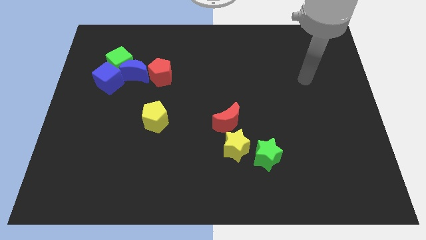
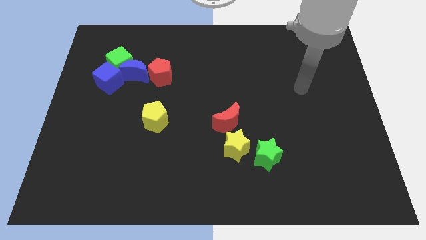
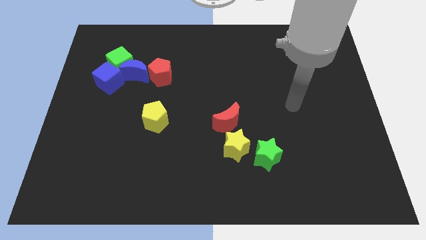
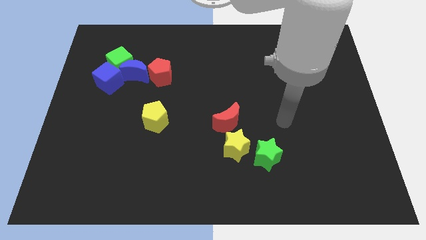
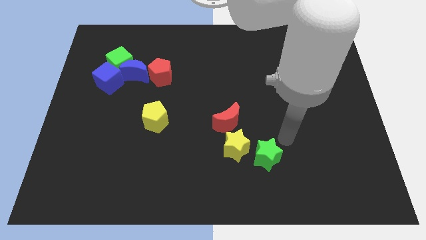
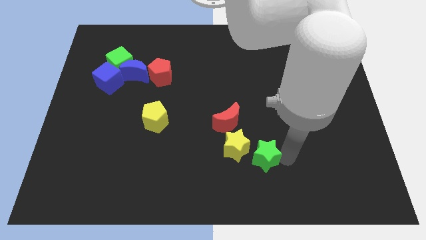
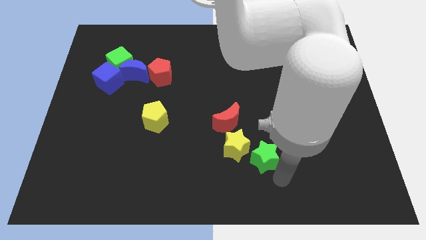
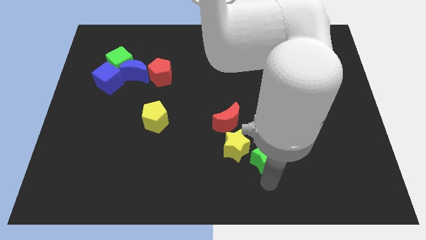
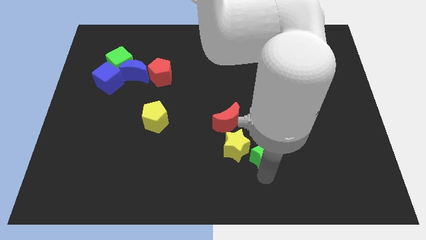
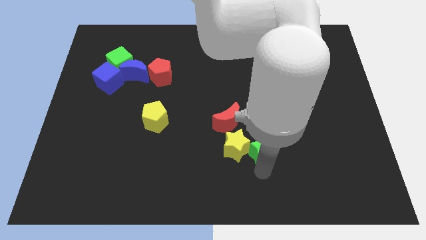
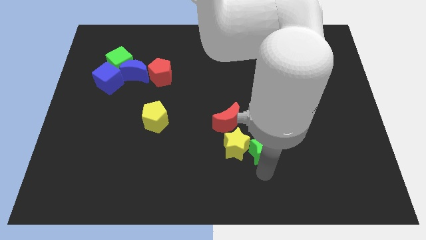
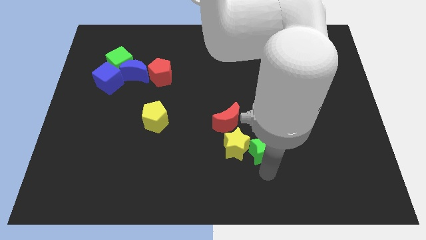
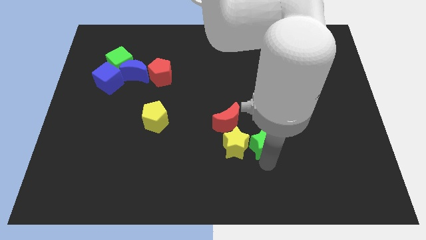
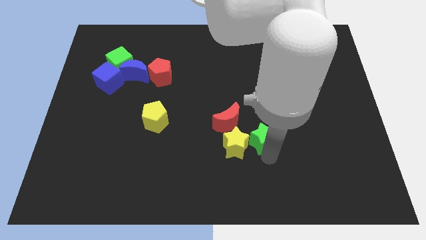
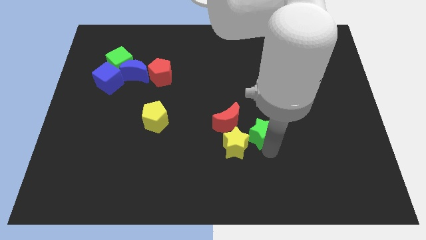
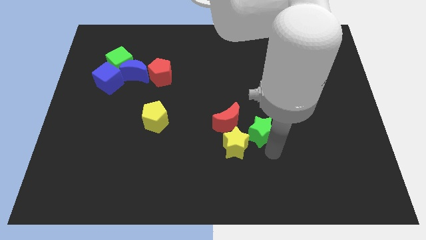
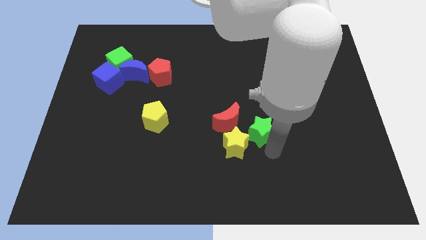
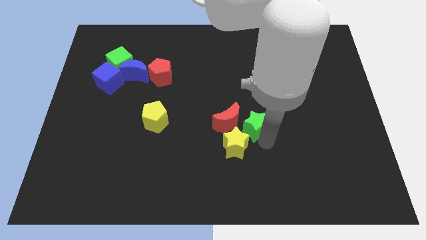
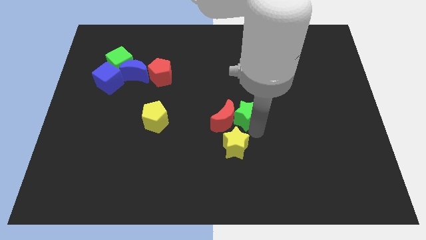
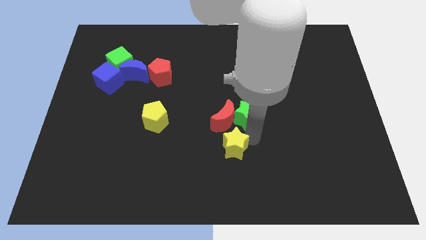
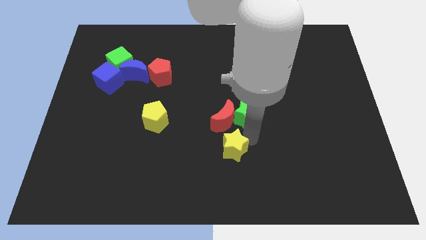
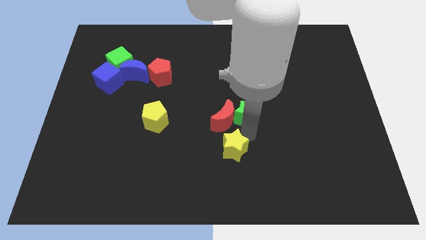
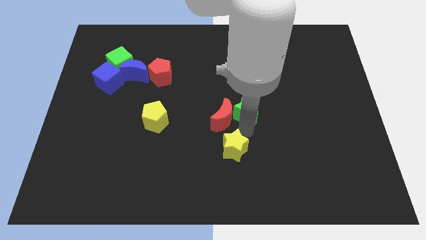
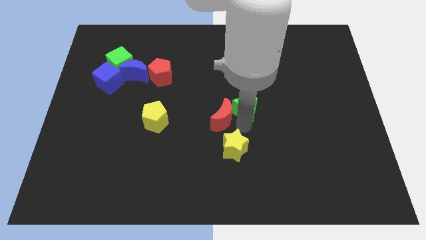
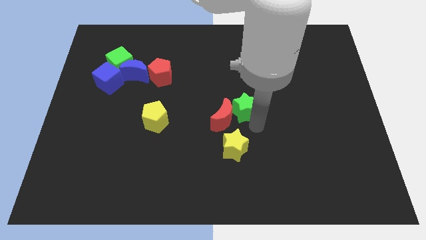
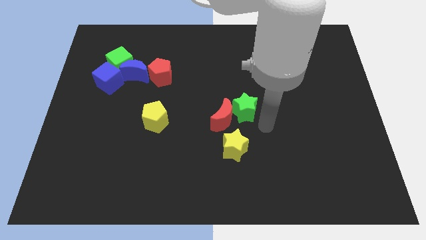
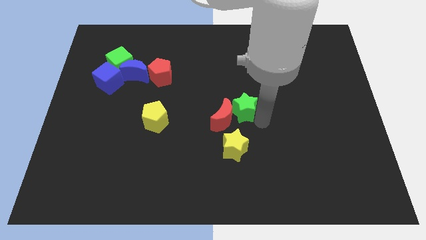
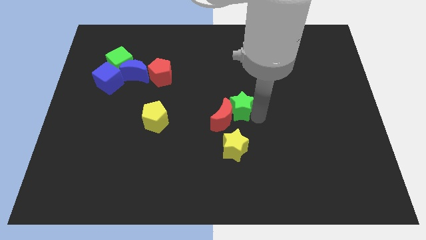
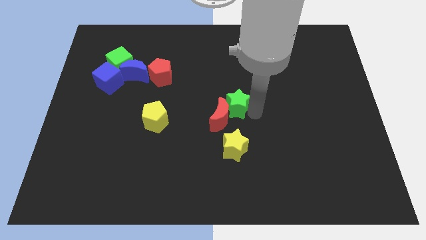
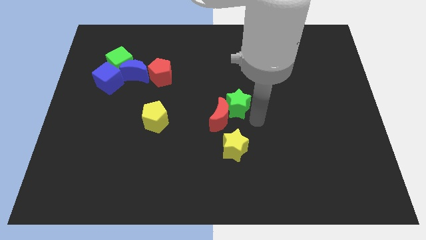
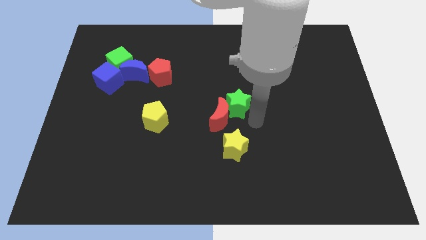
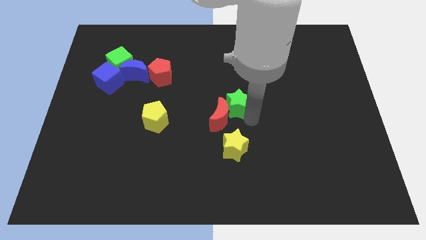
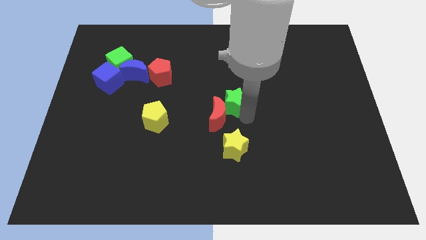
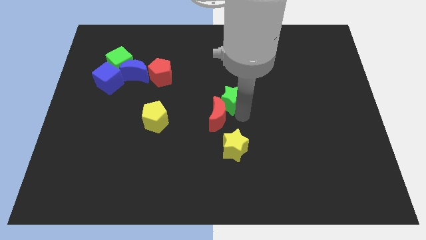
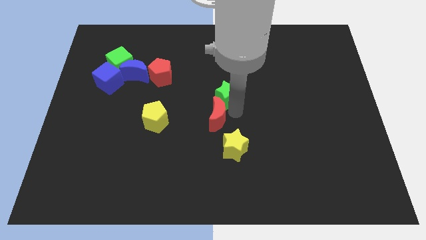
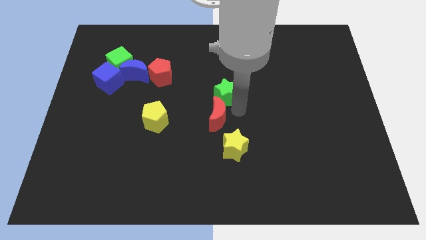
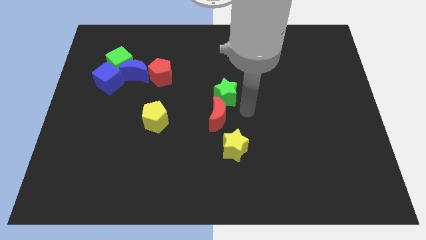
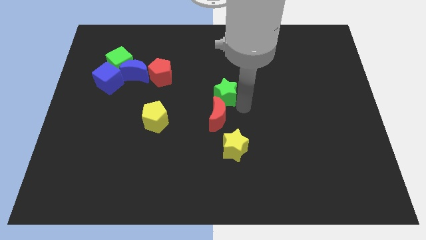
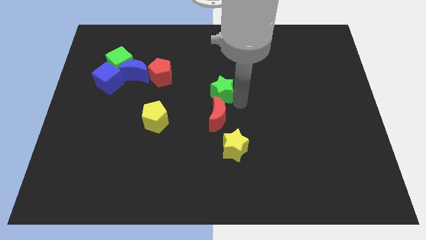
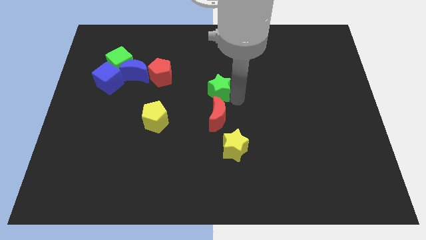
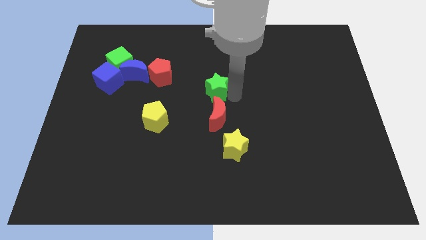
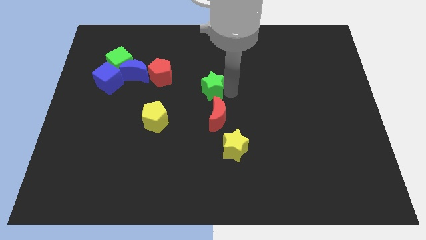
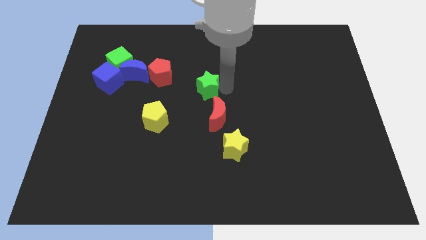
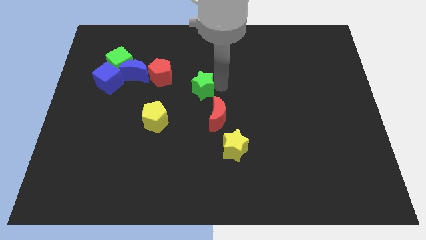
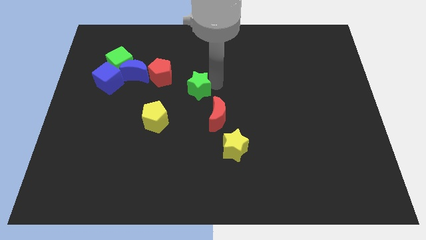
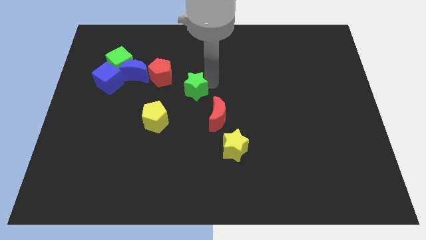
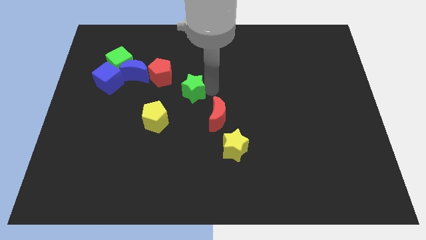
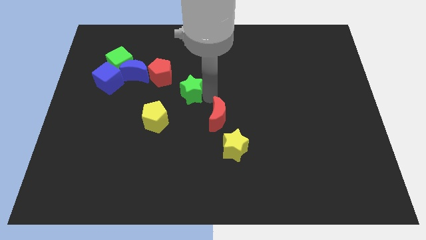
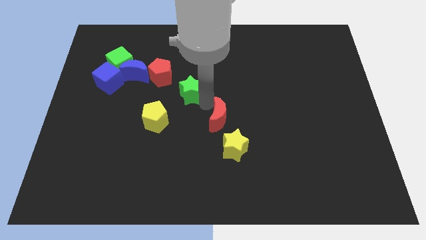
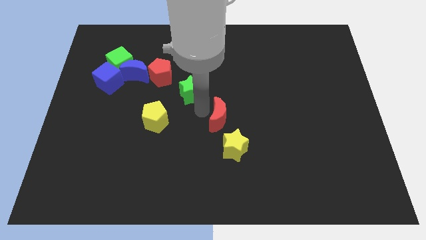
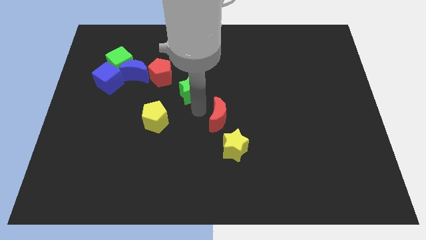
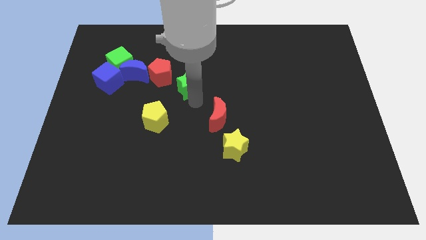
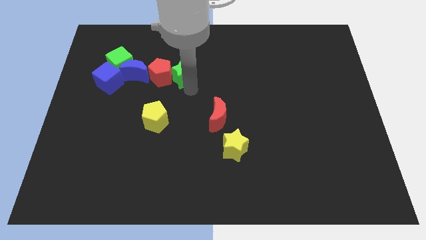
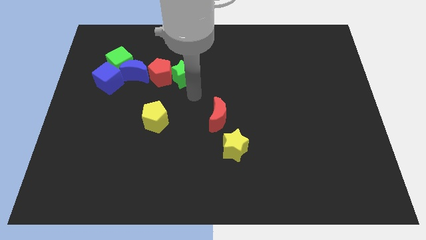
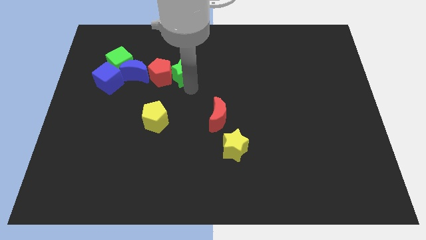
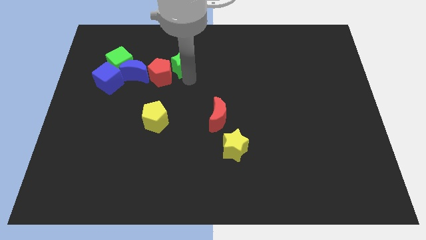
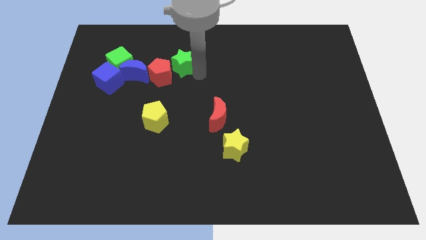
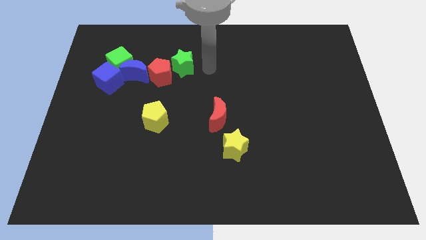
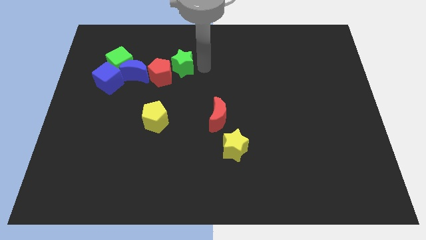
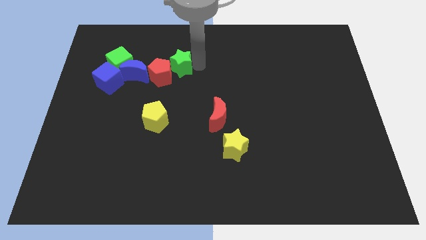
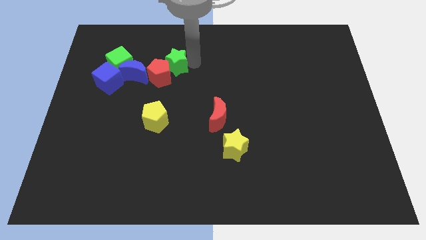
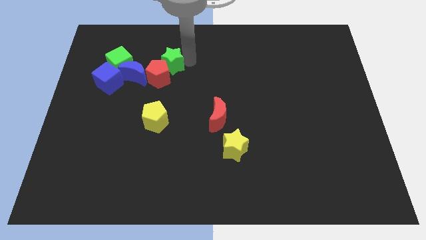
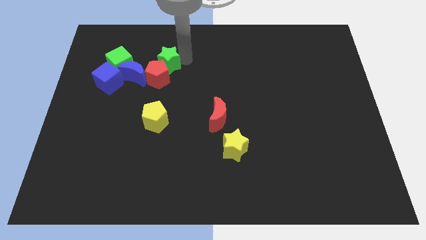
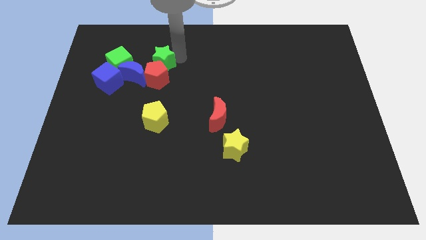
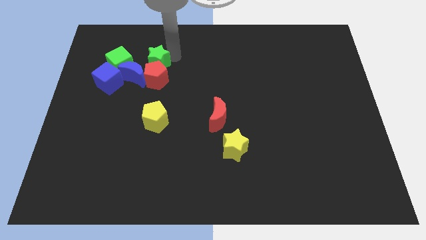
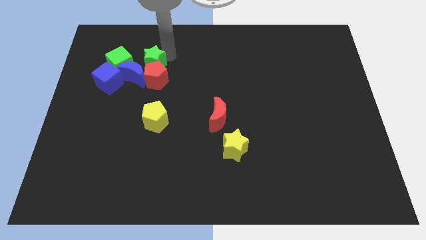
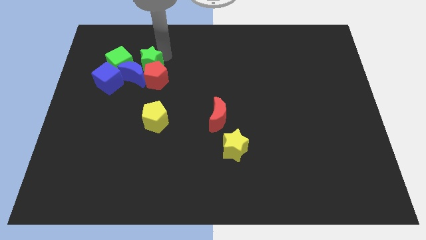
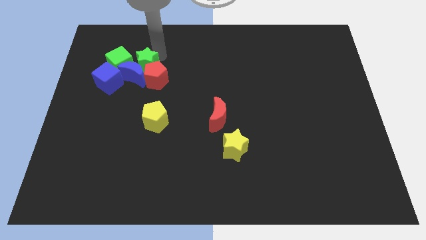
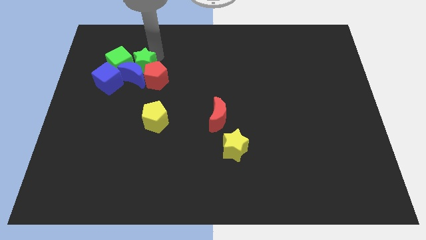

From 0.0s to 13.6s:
put the green star close to the green cube
